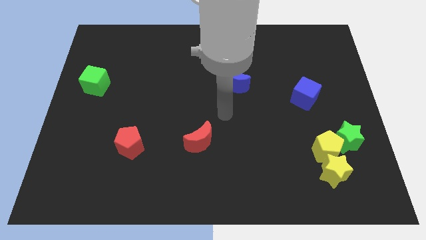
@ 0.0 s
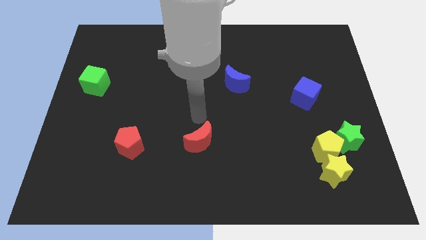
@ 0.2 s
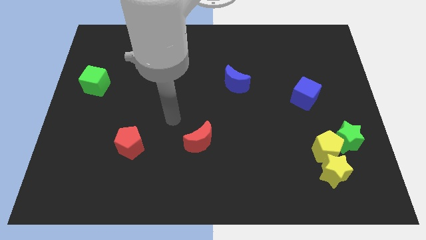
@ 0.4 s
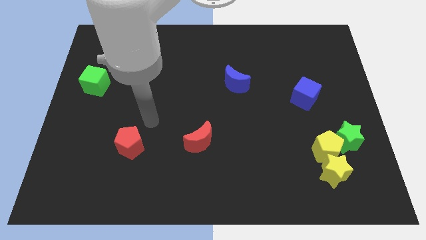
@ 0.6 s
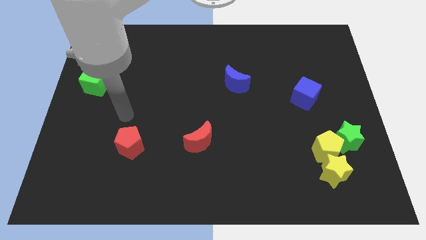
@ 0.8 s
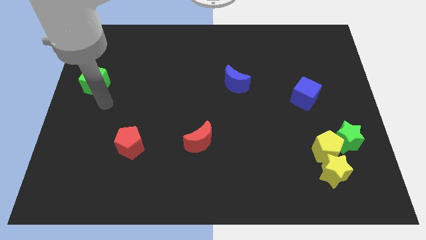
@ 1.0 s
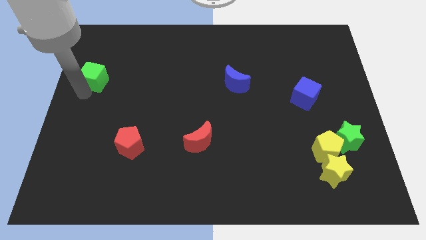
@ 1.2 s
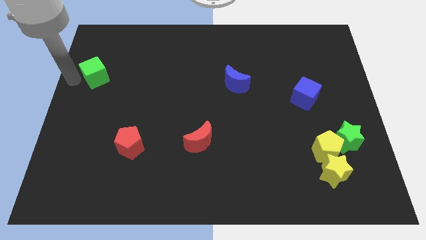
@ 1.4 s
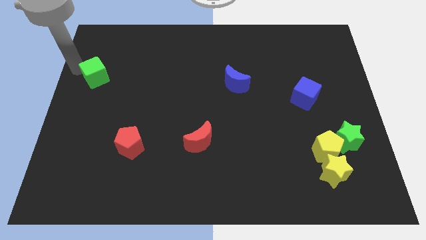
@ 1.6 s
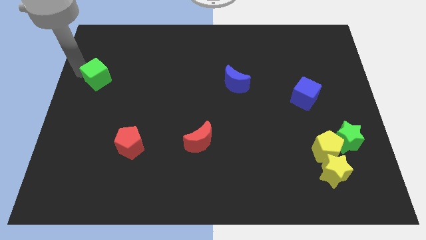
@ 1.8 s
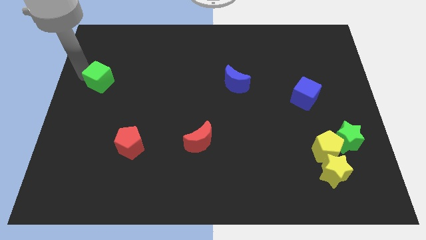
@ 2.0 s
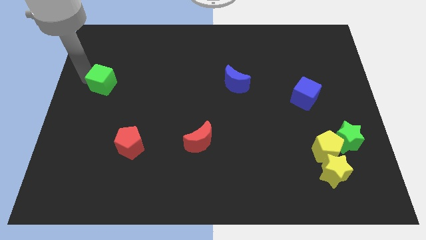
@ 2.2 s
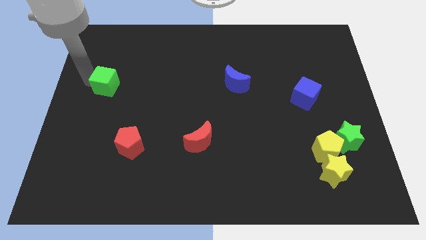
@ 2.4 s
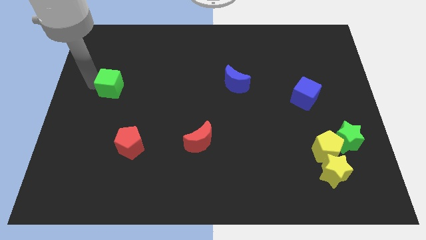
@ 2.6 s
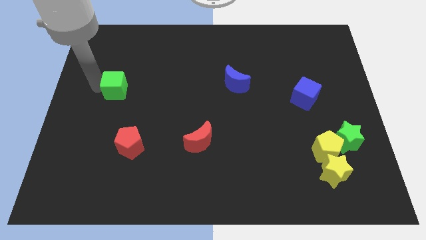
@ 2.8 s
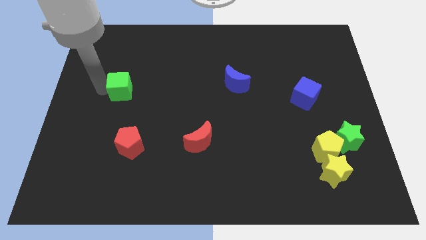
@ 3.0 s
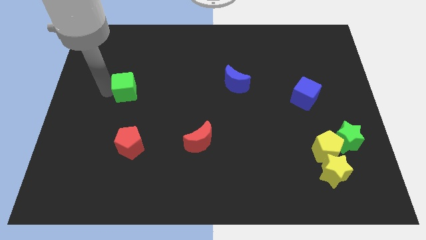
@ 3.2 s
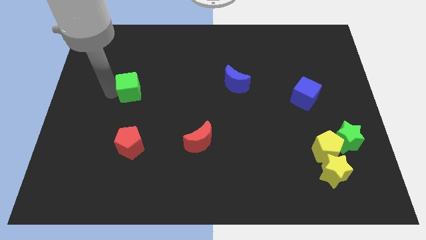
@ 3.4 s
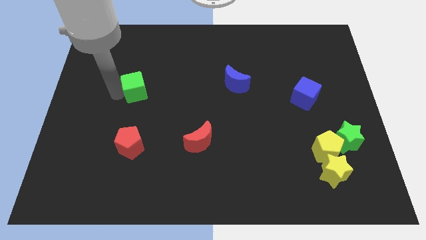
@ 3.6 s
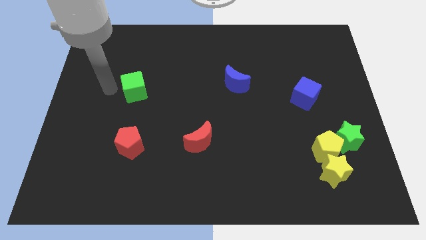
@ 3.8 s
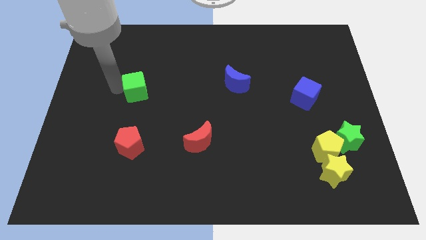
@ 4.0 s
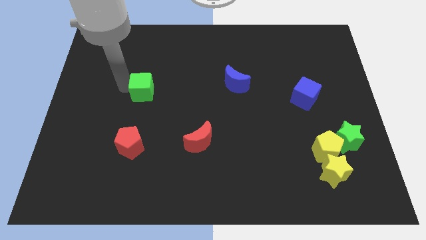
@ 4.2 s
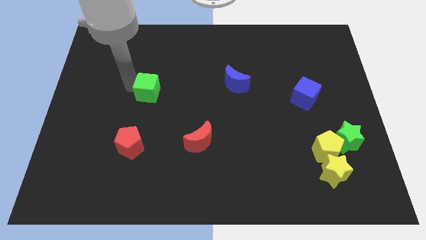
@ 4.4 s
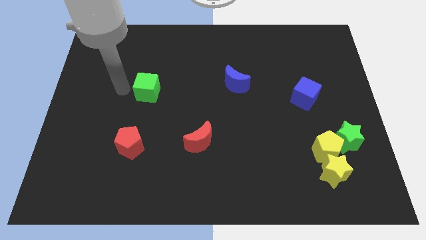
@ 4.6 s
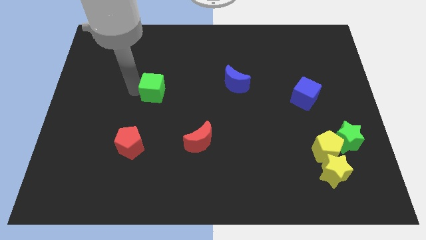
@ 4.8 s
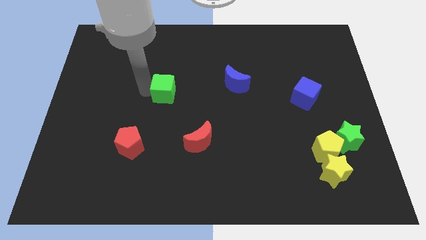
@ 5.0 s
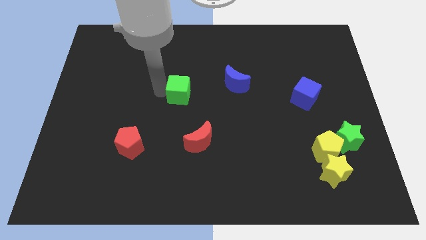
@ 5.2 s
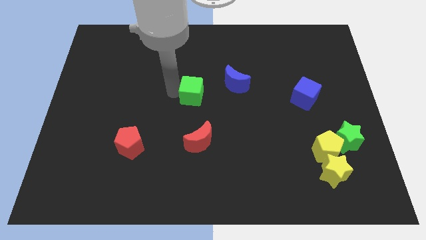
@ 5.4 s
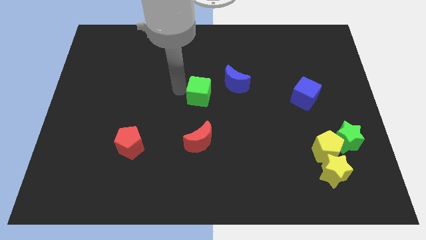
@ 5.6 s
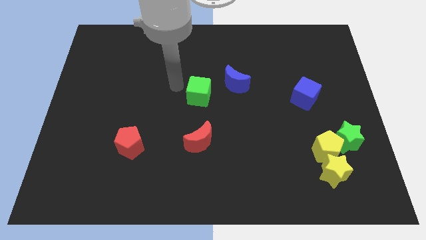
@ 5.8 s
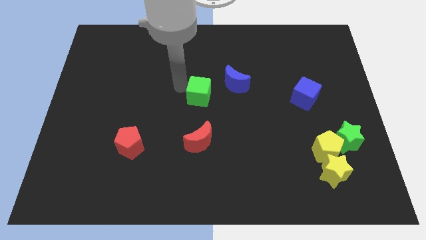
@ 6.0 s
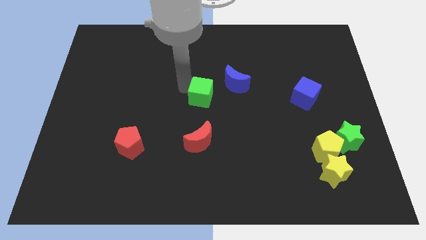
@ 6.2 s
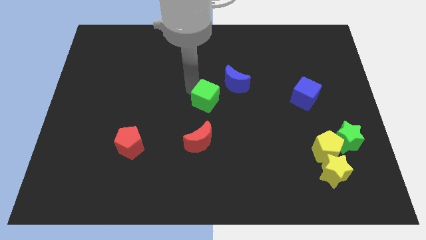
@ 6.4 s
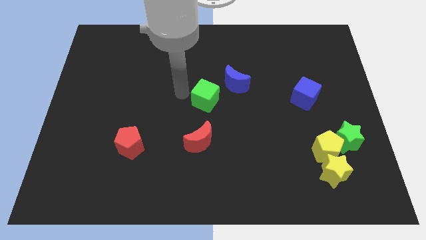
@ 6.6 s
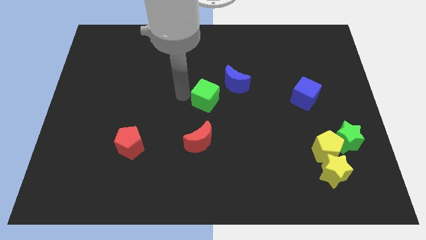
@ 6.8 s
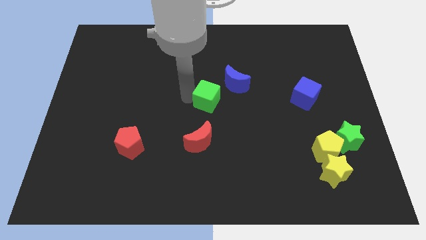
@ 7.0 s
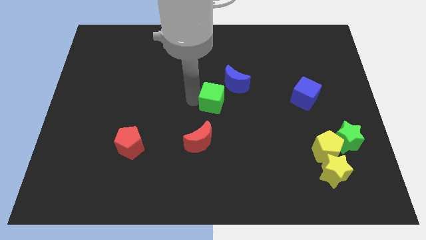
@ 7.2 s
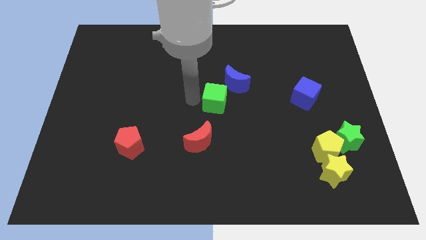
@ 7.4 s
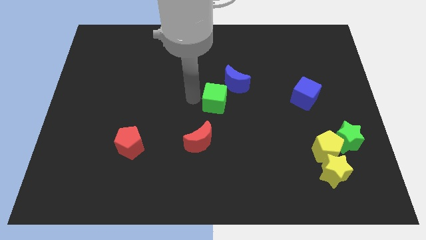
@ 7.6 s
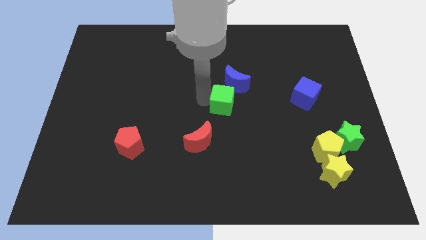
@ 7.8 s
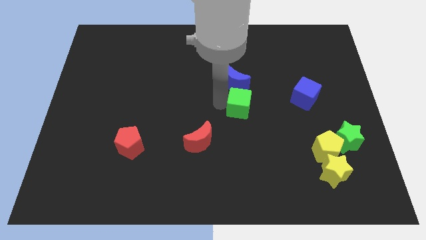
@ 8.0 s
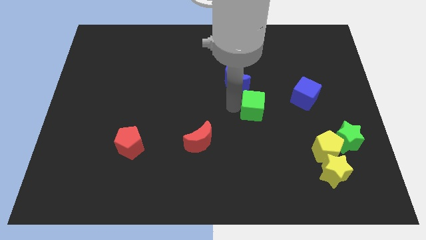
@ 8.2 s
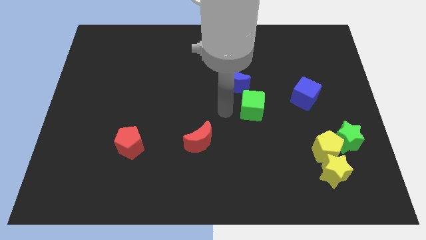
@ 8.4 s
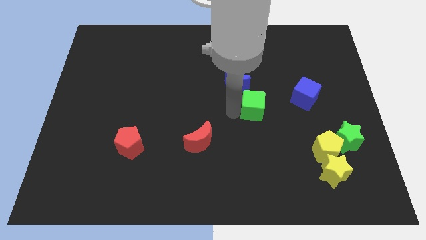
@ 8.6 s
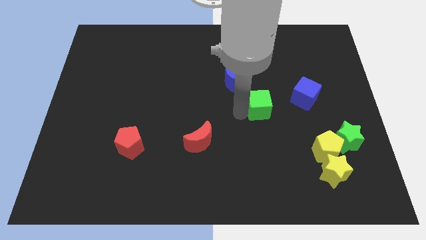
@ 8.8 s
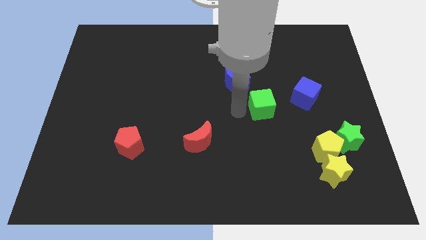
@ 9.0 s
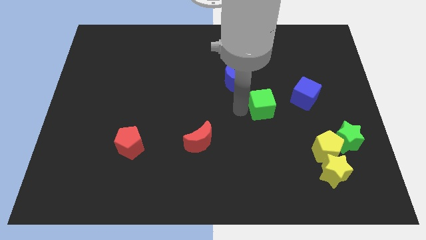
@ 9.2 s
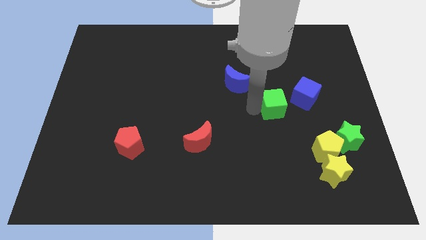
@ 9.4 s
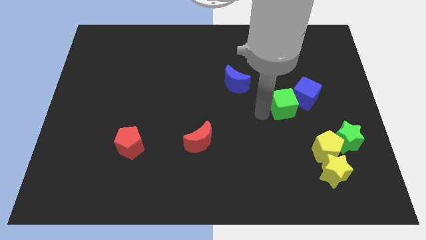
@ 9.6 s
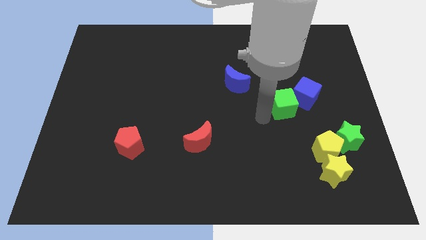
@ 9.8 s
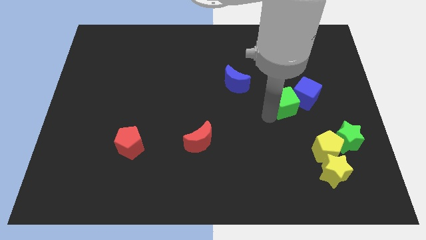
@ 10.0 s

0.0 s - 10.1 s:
move the green cube next to the blue cube

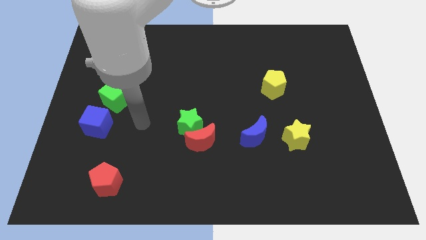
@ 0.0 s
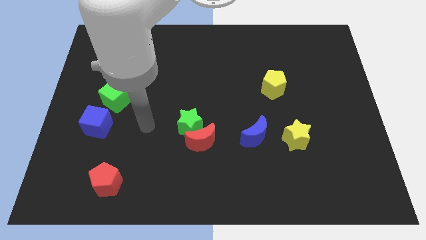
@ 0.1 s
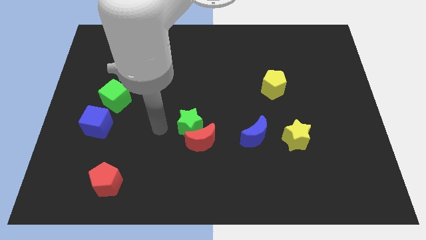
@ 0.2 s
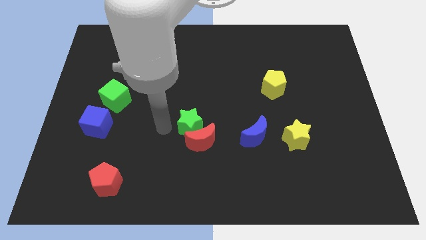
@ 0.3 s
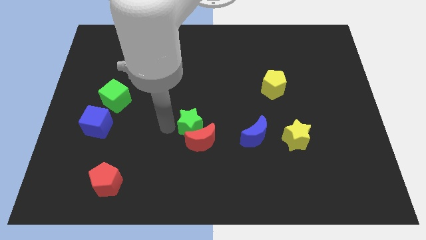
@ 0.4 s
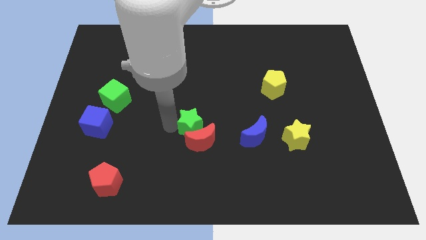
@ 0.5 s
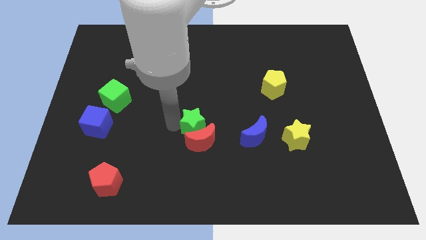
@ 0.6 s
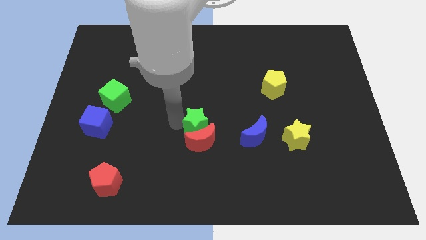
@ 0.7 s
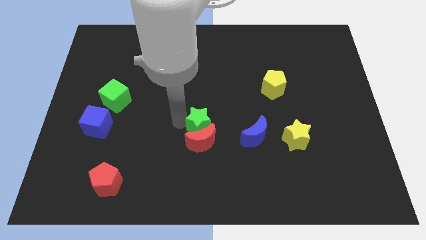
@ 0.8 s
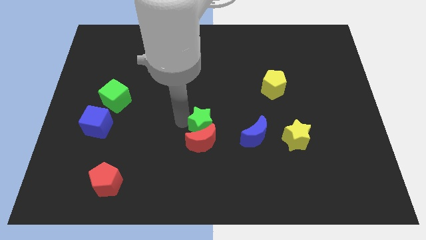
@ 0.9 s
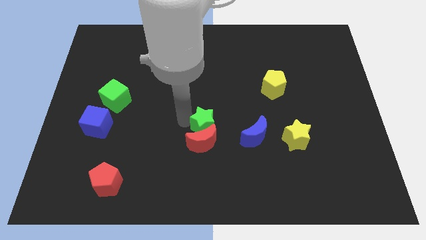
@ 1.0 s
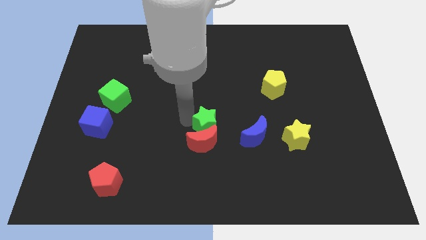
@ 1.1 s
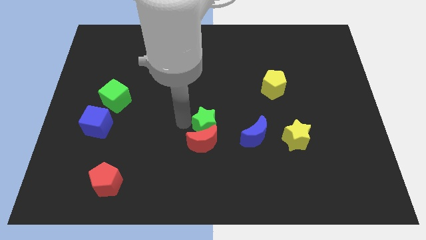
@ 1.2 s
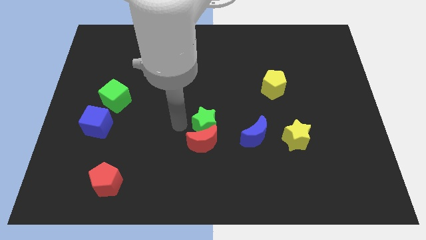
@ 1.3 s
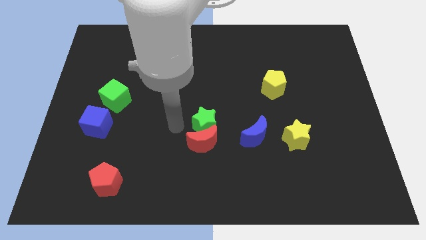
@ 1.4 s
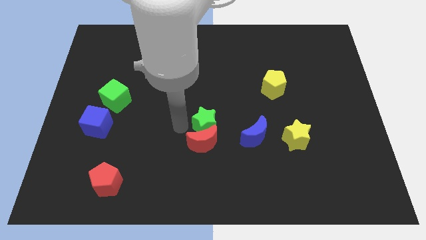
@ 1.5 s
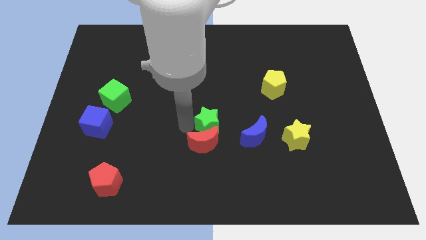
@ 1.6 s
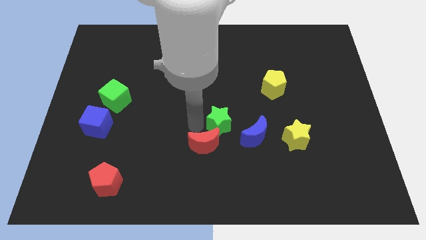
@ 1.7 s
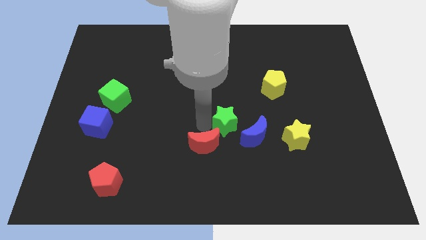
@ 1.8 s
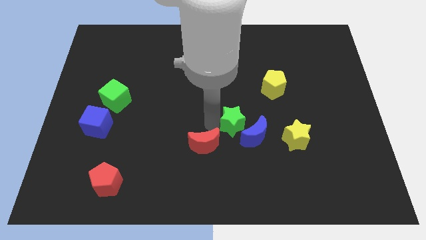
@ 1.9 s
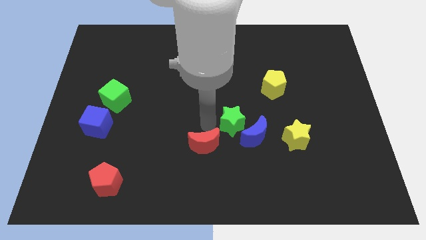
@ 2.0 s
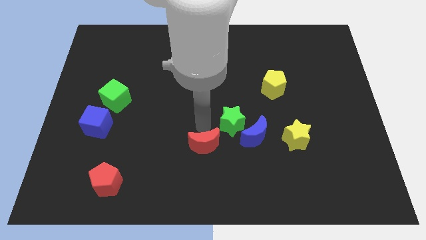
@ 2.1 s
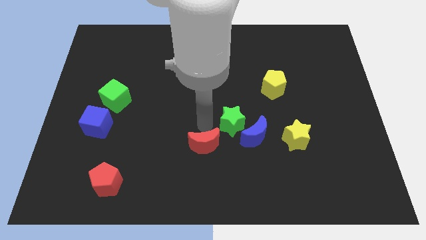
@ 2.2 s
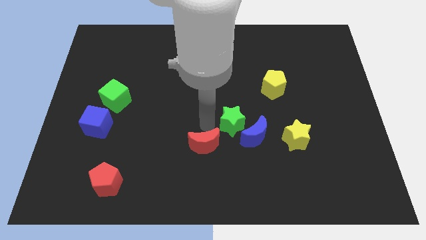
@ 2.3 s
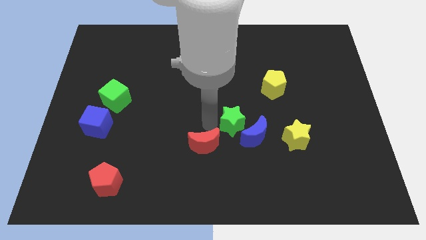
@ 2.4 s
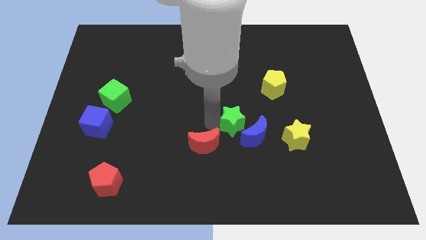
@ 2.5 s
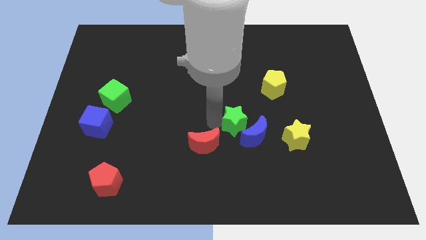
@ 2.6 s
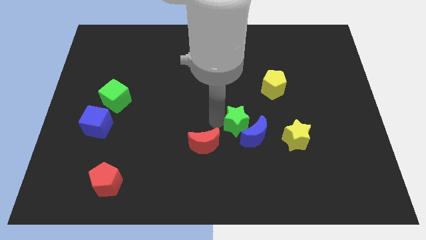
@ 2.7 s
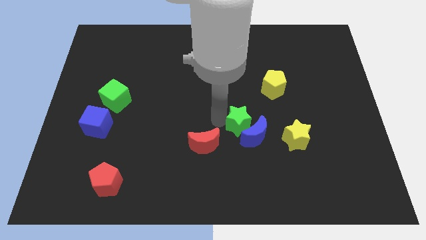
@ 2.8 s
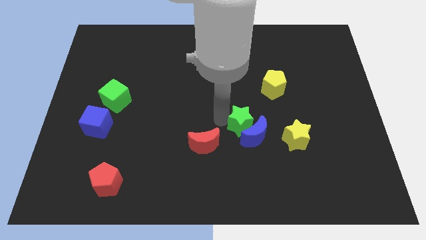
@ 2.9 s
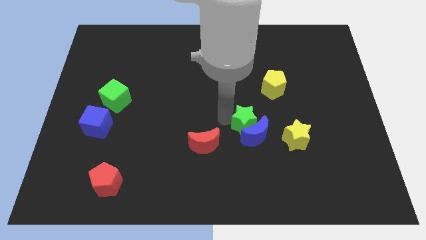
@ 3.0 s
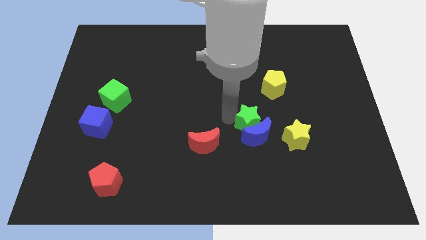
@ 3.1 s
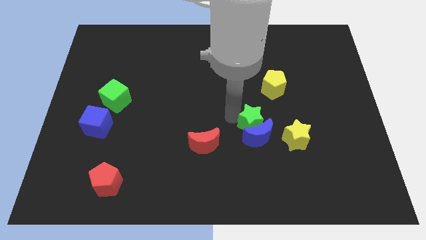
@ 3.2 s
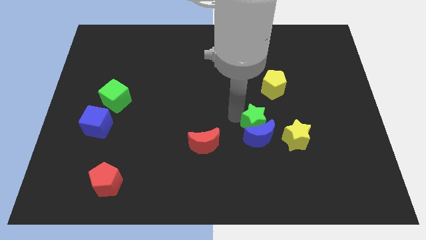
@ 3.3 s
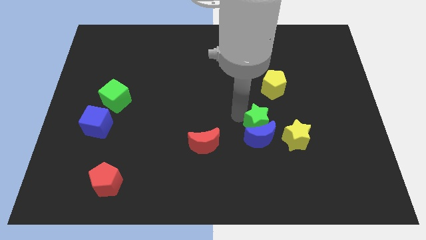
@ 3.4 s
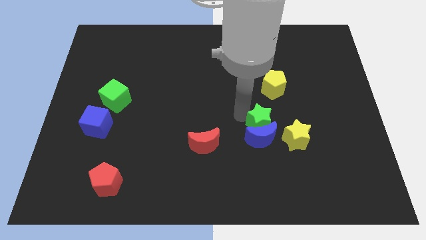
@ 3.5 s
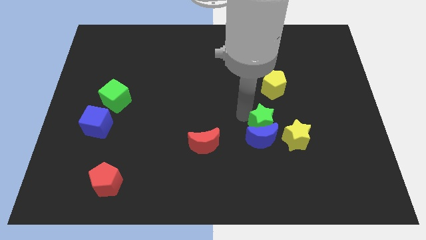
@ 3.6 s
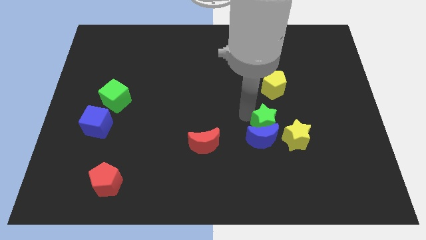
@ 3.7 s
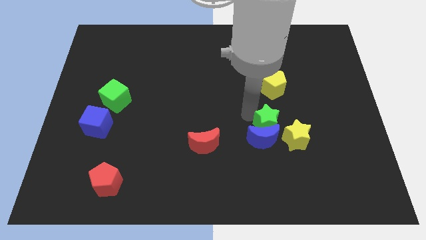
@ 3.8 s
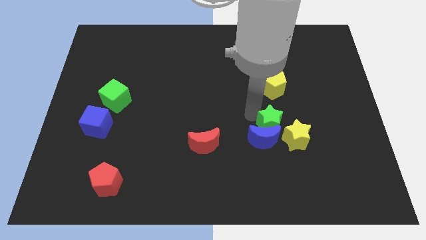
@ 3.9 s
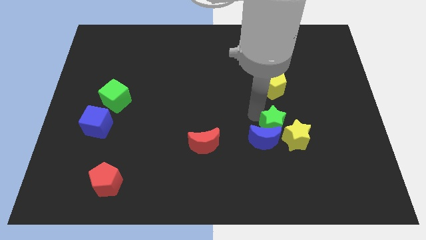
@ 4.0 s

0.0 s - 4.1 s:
slide the green star to the yellow star
